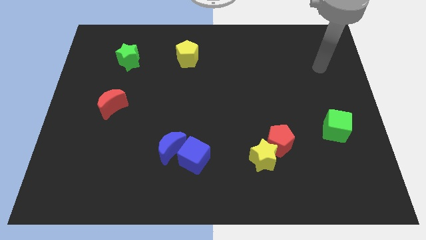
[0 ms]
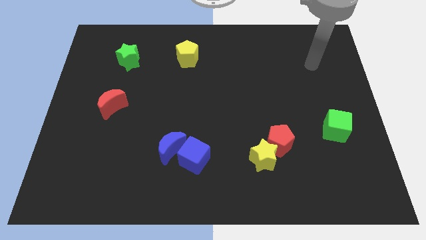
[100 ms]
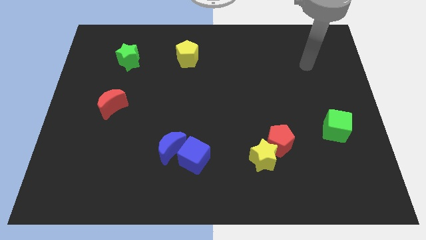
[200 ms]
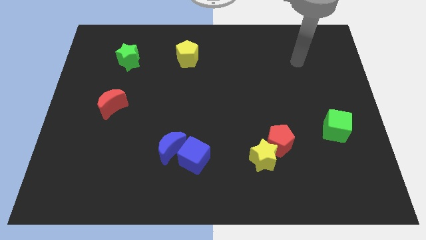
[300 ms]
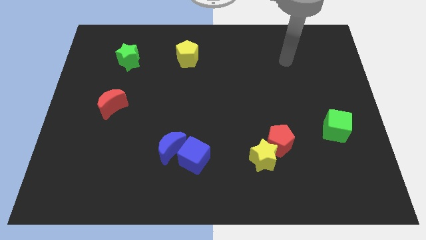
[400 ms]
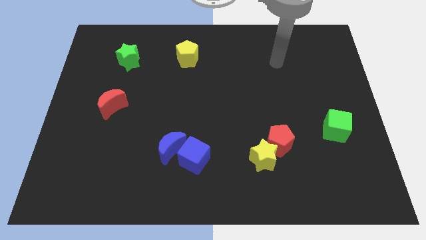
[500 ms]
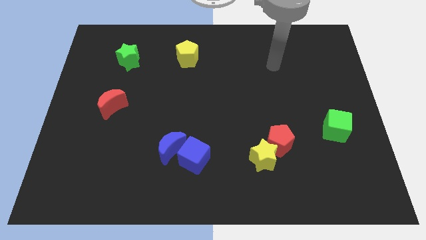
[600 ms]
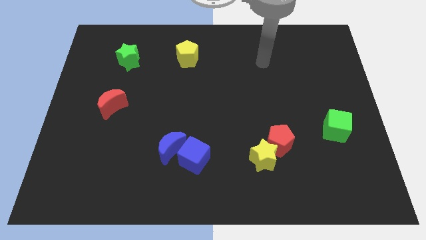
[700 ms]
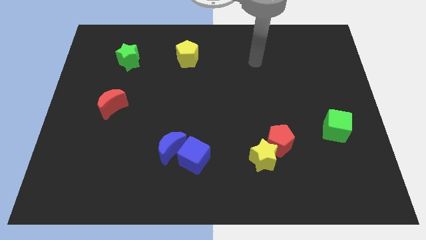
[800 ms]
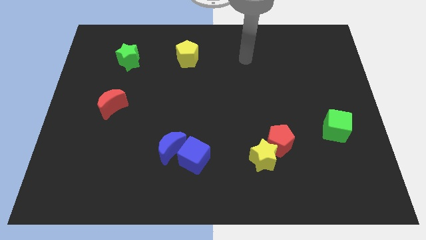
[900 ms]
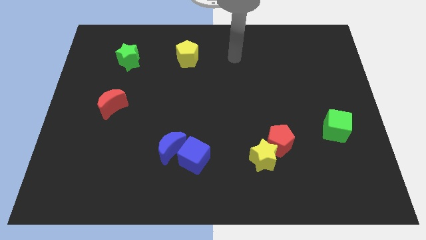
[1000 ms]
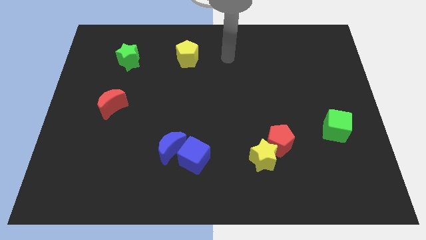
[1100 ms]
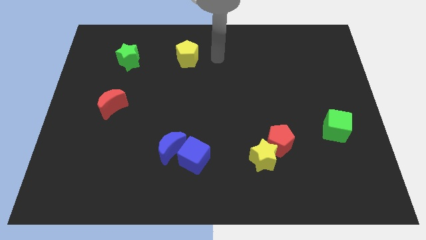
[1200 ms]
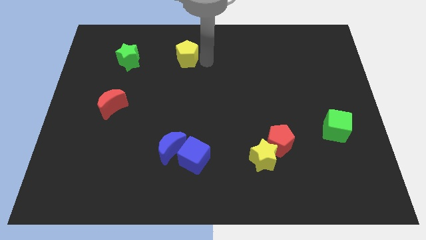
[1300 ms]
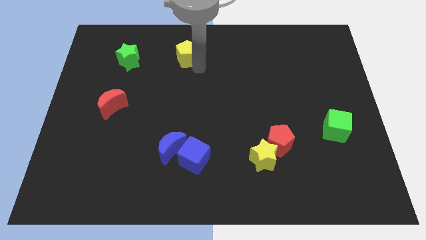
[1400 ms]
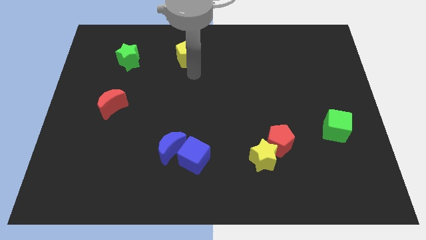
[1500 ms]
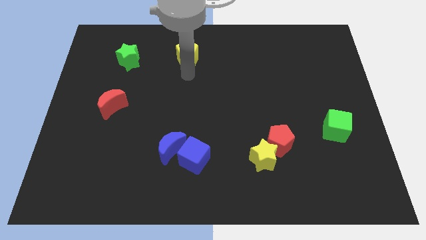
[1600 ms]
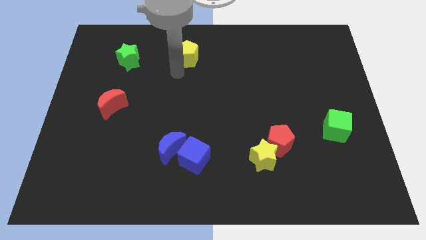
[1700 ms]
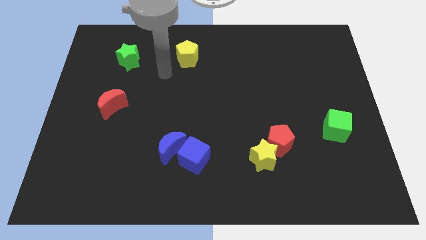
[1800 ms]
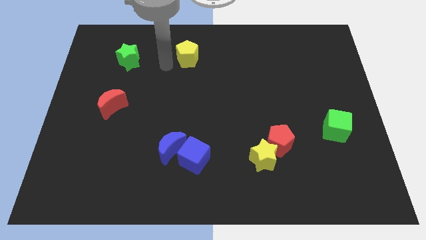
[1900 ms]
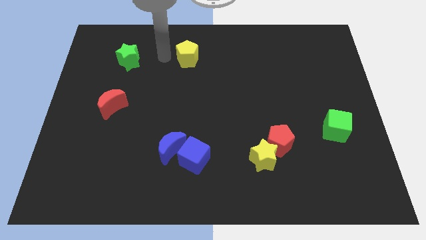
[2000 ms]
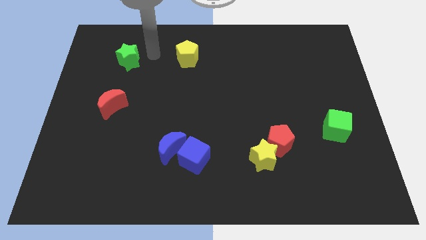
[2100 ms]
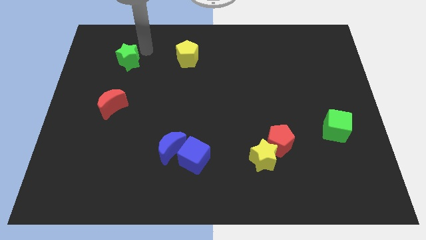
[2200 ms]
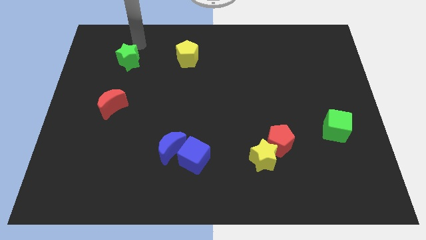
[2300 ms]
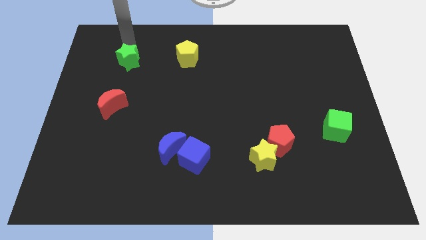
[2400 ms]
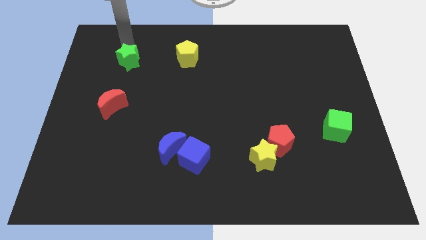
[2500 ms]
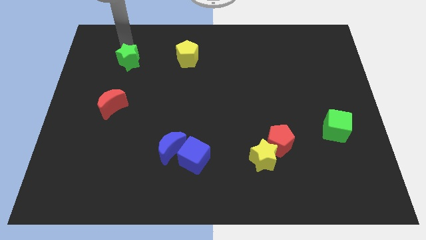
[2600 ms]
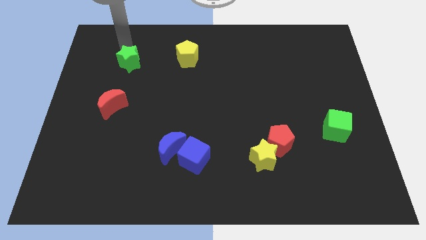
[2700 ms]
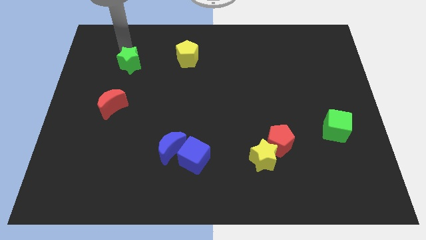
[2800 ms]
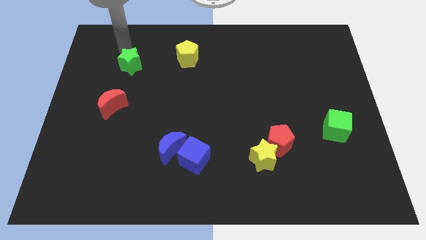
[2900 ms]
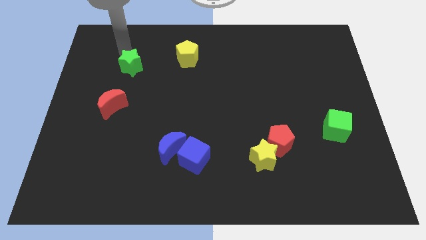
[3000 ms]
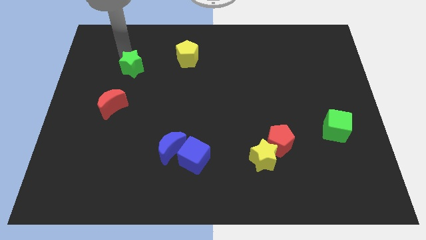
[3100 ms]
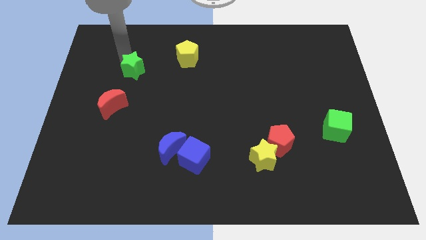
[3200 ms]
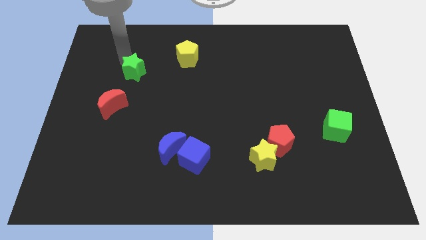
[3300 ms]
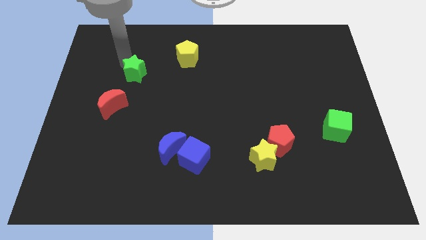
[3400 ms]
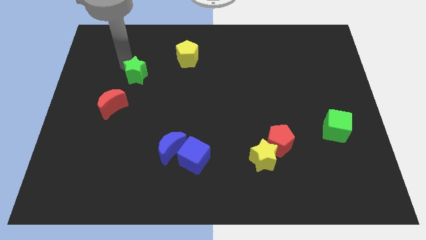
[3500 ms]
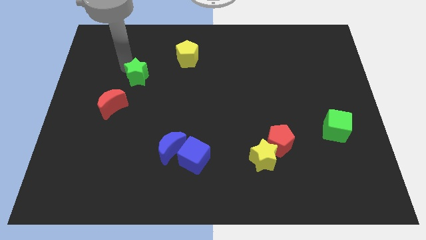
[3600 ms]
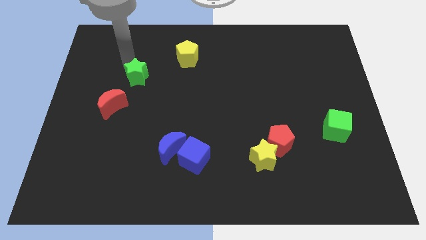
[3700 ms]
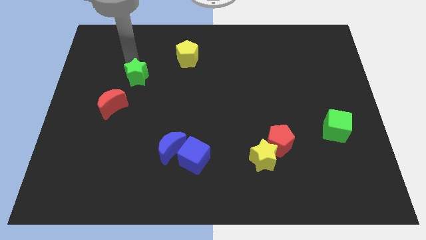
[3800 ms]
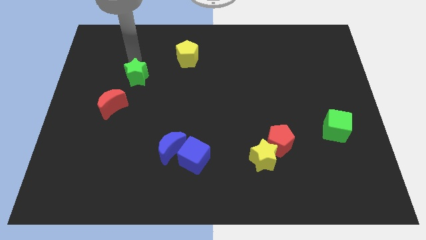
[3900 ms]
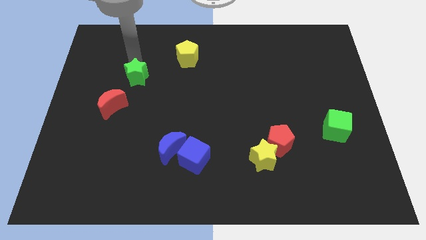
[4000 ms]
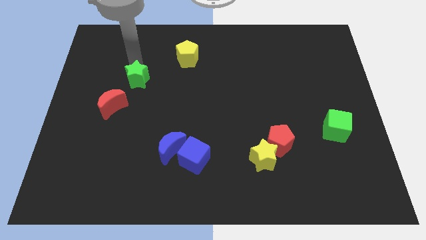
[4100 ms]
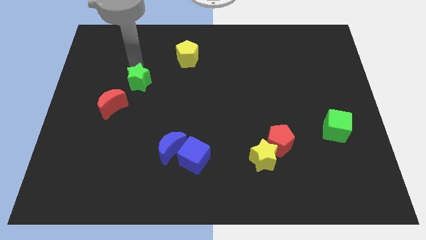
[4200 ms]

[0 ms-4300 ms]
move the green star a little downwards

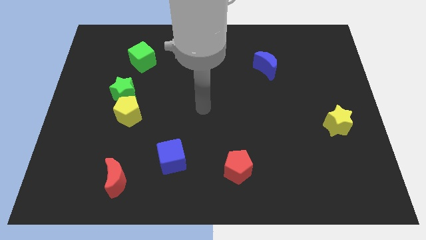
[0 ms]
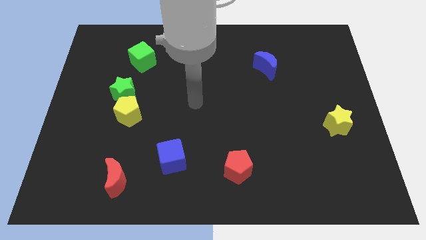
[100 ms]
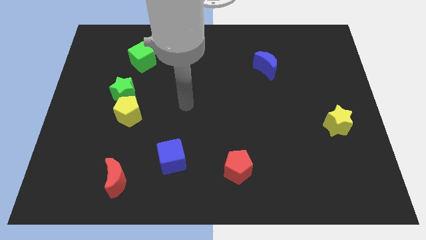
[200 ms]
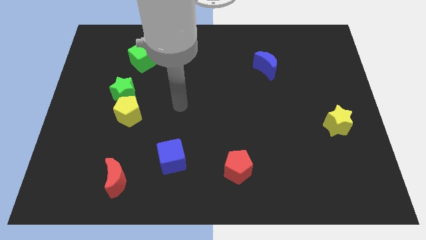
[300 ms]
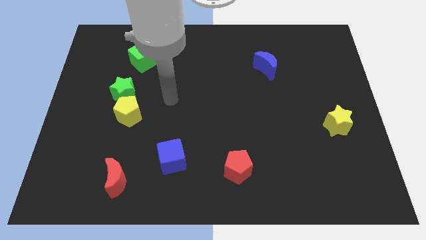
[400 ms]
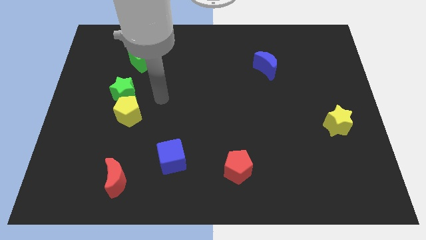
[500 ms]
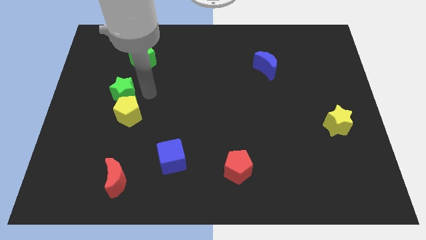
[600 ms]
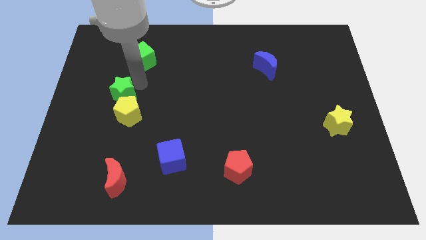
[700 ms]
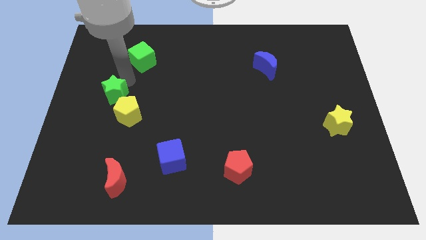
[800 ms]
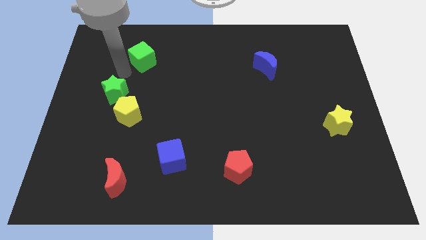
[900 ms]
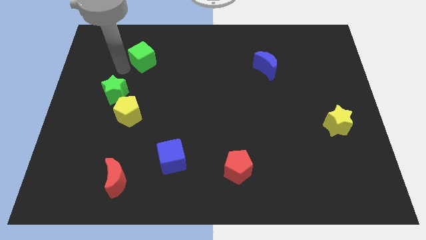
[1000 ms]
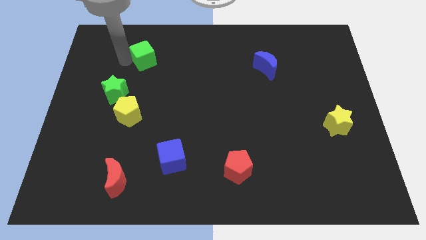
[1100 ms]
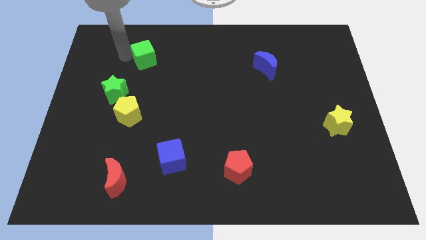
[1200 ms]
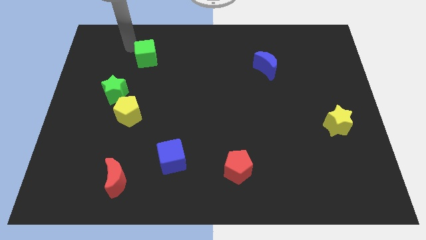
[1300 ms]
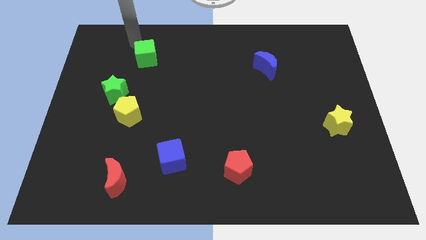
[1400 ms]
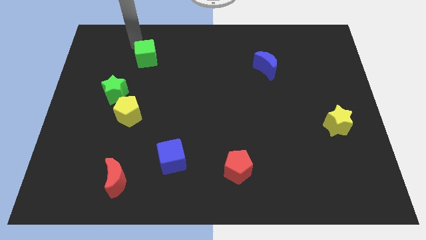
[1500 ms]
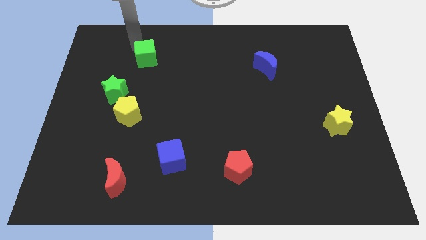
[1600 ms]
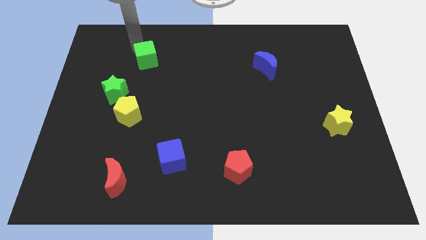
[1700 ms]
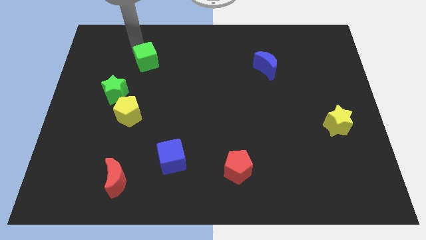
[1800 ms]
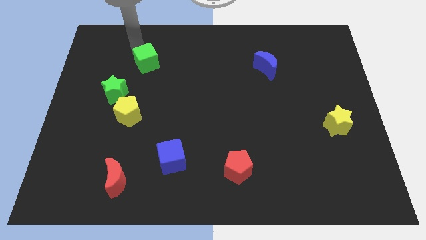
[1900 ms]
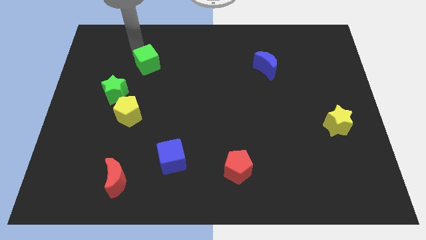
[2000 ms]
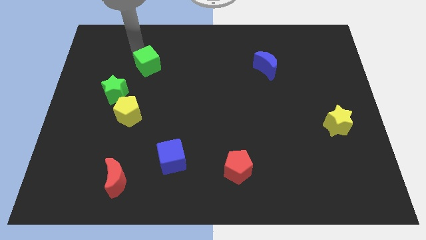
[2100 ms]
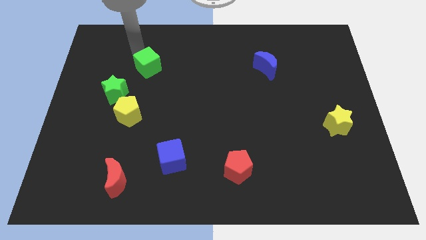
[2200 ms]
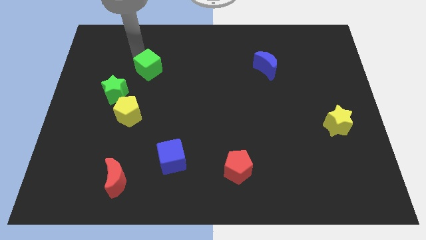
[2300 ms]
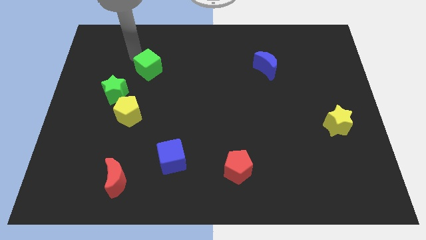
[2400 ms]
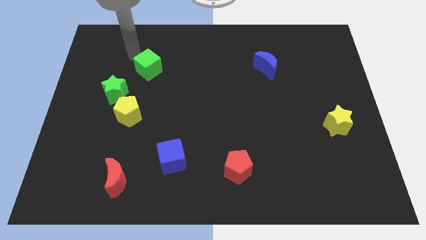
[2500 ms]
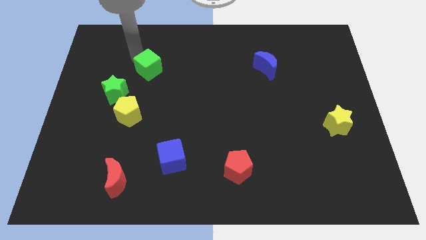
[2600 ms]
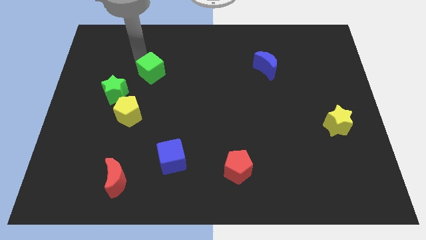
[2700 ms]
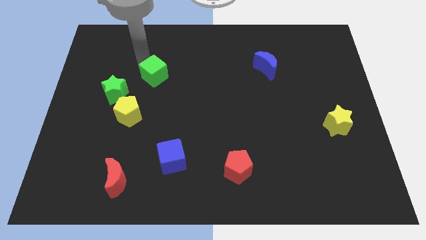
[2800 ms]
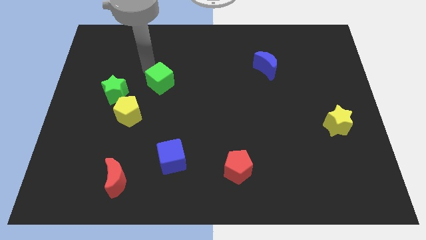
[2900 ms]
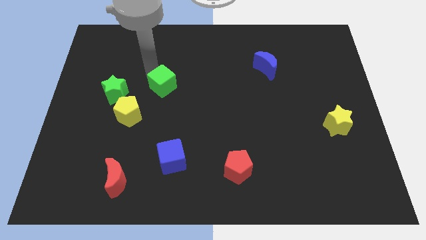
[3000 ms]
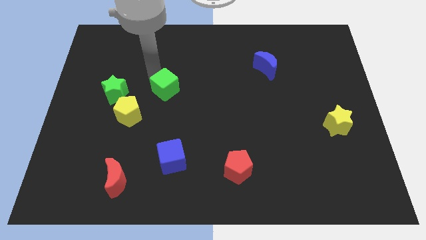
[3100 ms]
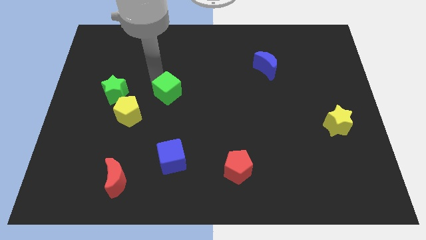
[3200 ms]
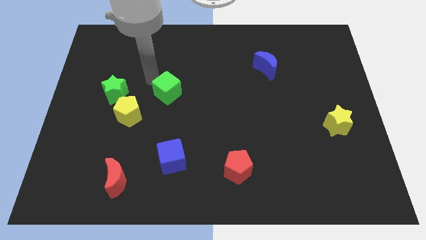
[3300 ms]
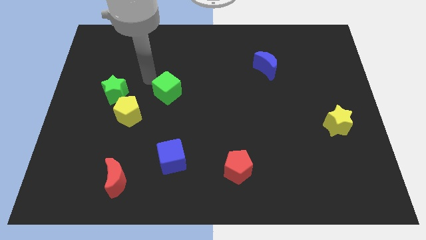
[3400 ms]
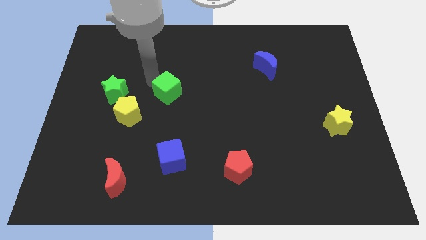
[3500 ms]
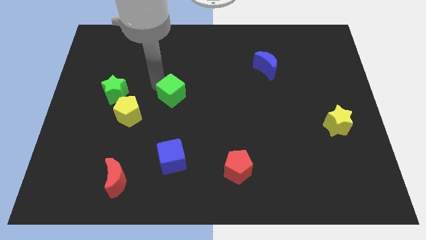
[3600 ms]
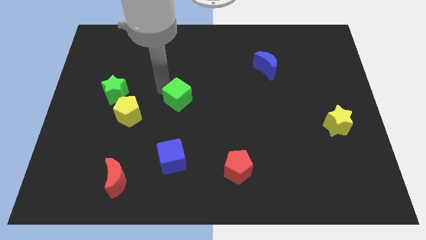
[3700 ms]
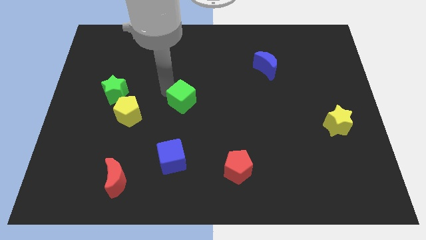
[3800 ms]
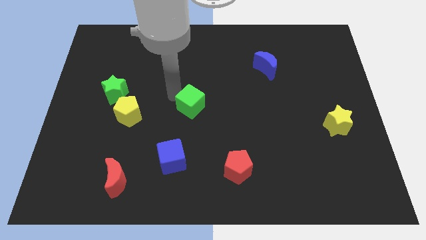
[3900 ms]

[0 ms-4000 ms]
slide the green cube down and then right

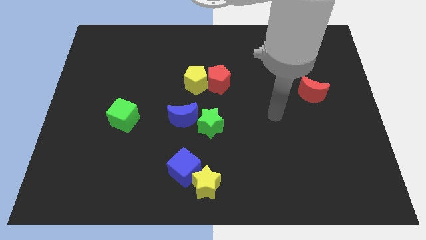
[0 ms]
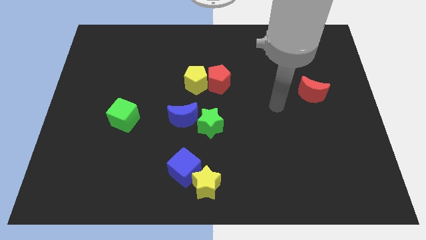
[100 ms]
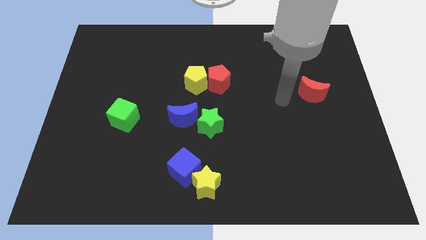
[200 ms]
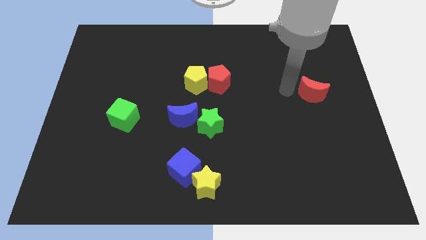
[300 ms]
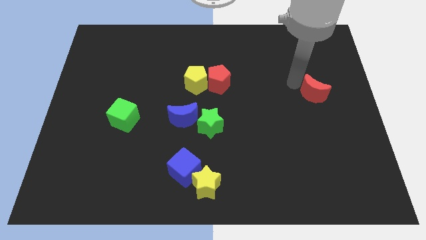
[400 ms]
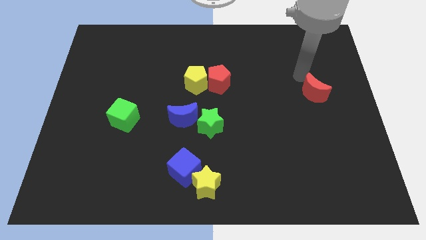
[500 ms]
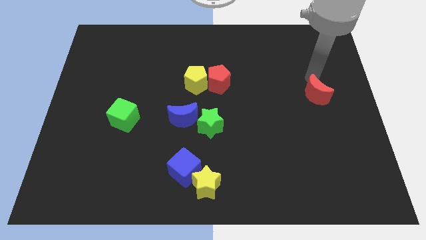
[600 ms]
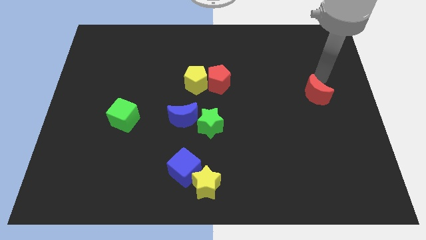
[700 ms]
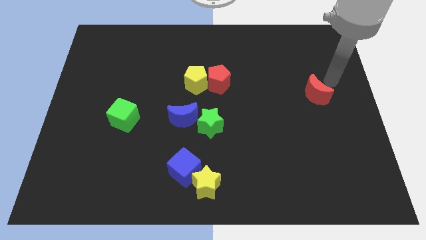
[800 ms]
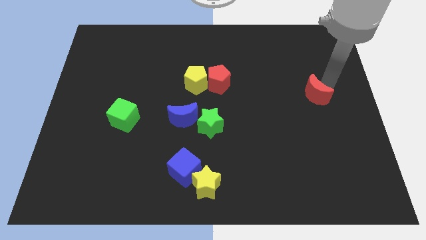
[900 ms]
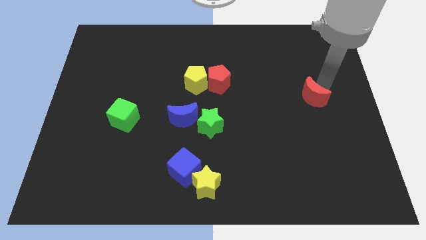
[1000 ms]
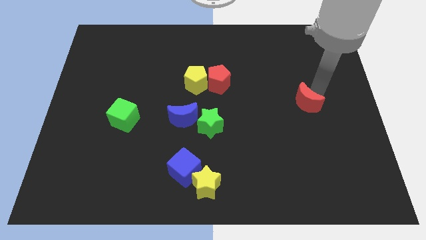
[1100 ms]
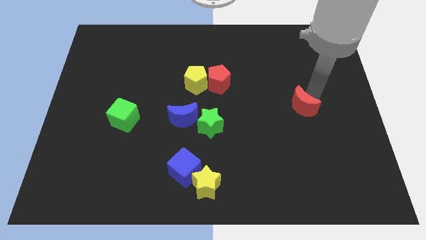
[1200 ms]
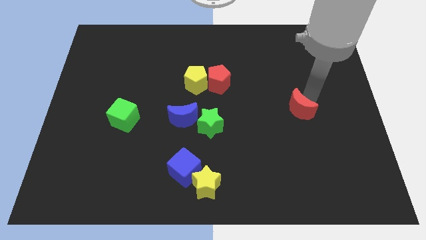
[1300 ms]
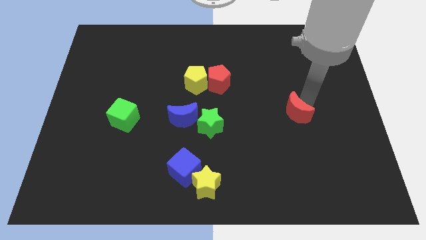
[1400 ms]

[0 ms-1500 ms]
move the red moon downwards and then to the left slightly
